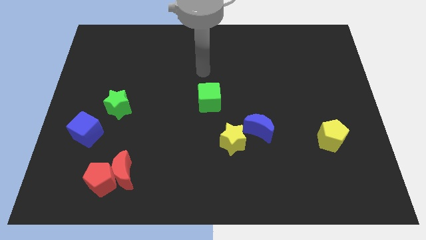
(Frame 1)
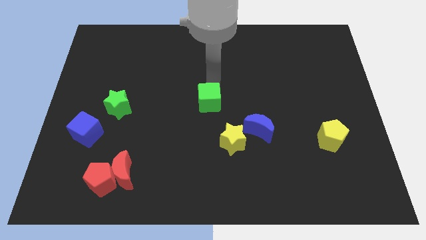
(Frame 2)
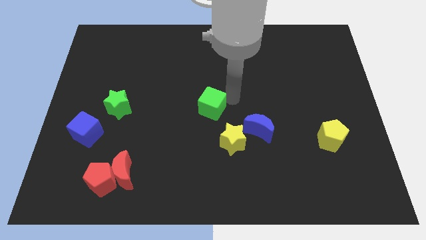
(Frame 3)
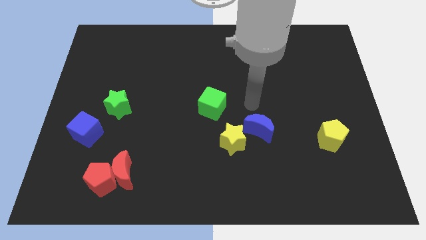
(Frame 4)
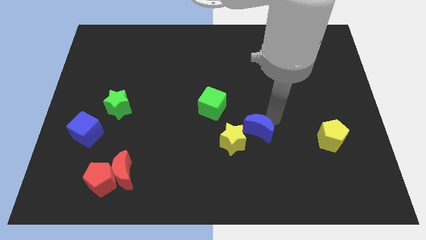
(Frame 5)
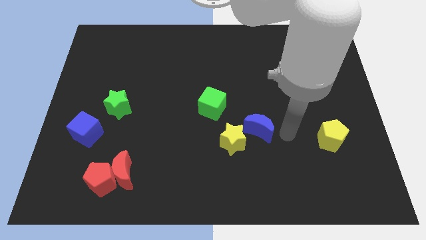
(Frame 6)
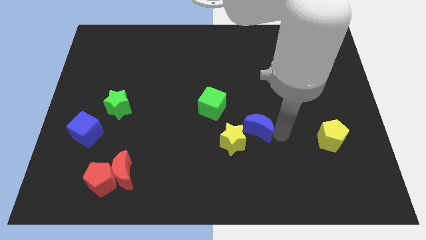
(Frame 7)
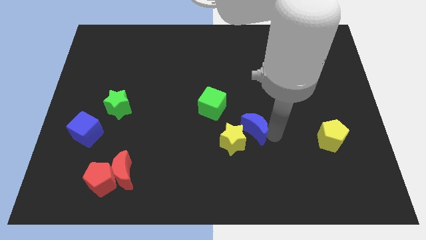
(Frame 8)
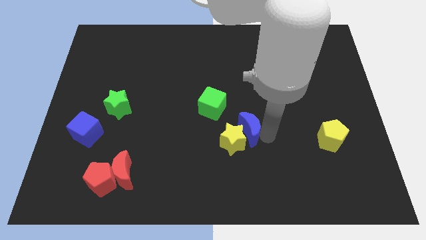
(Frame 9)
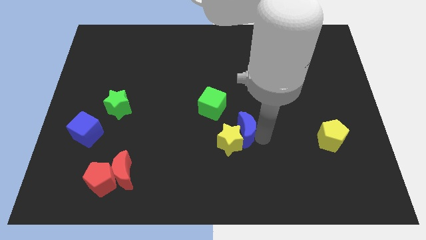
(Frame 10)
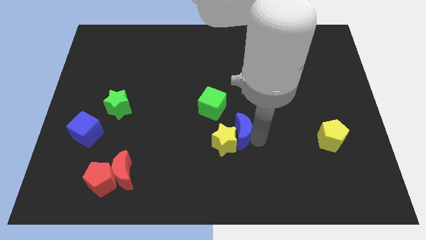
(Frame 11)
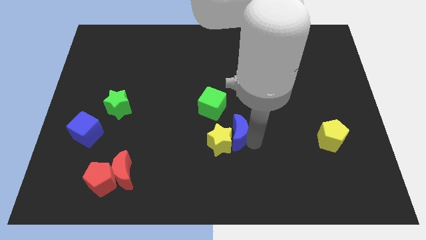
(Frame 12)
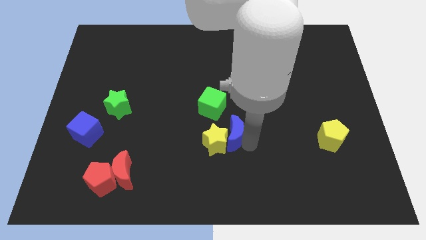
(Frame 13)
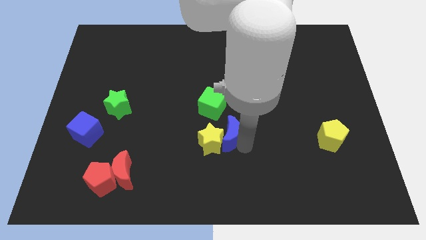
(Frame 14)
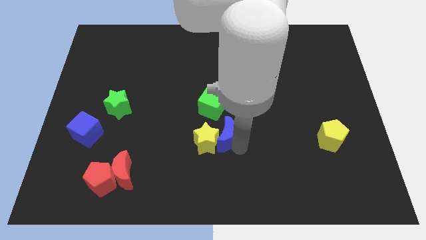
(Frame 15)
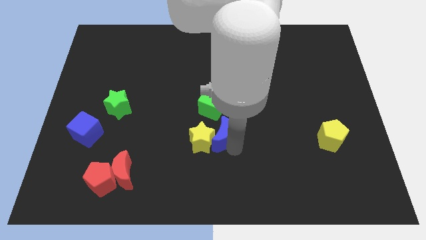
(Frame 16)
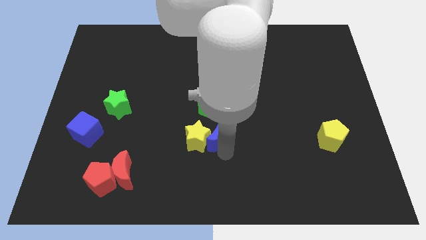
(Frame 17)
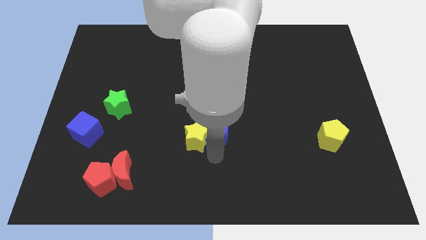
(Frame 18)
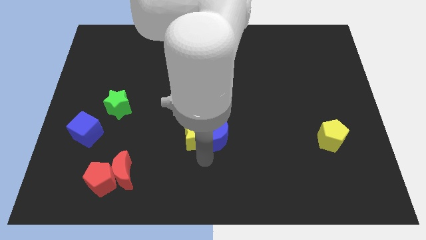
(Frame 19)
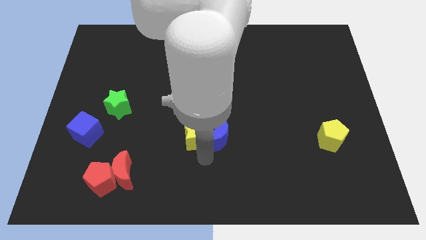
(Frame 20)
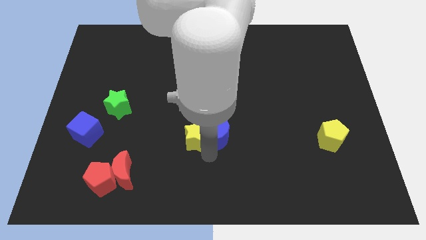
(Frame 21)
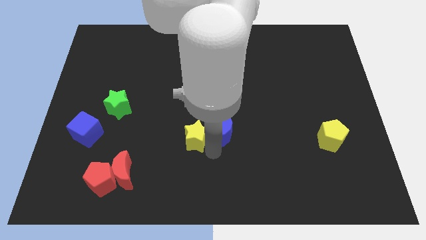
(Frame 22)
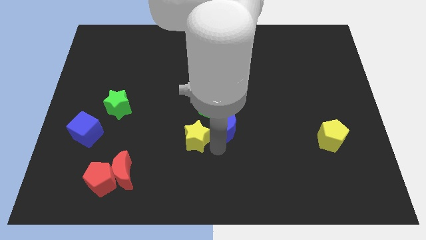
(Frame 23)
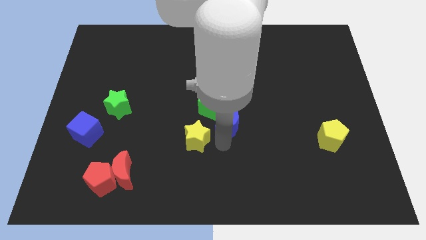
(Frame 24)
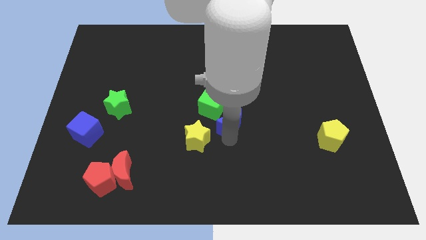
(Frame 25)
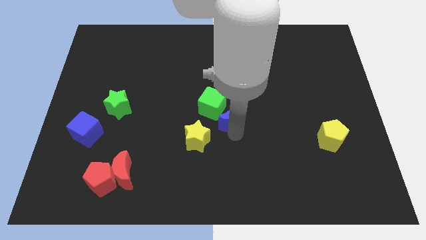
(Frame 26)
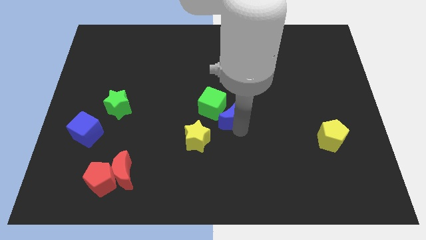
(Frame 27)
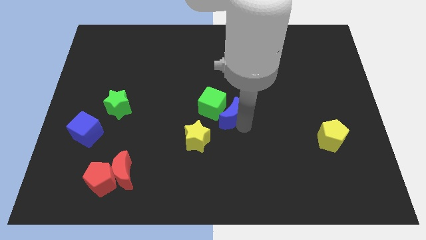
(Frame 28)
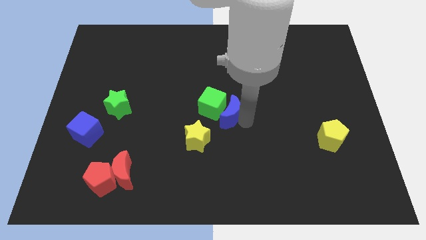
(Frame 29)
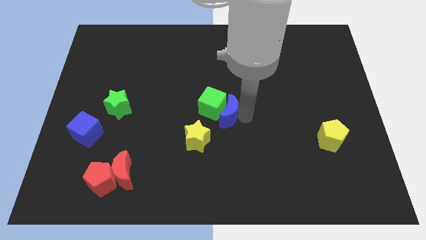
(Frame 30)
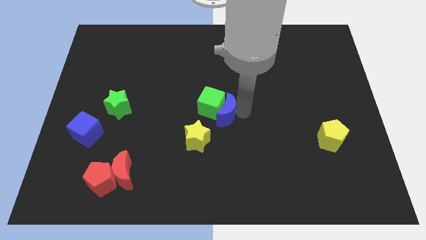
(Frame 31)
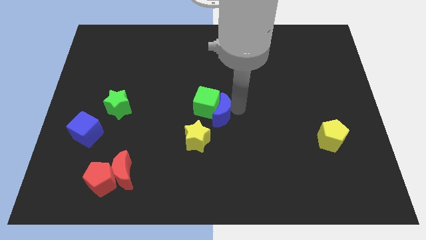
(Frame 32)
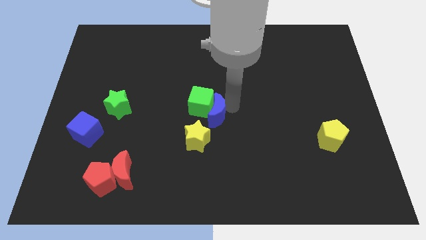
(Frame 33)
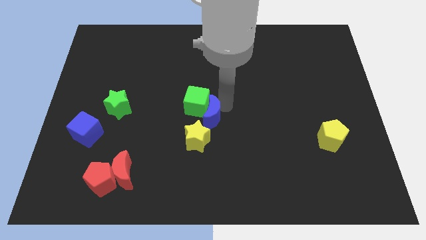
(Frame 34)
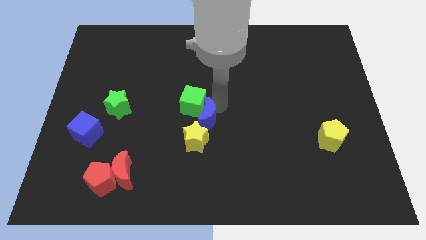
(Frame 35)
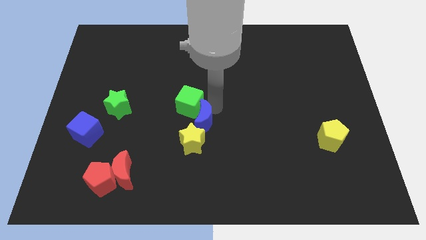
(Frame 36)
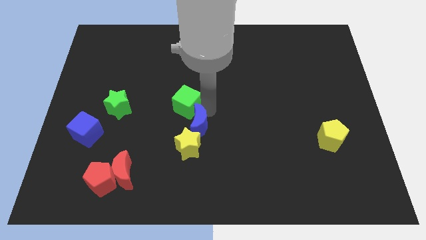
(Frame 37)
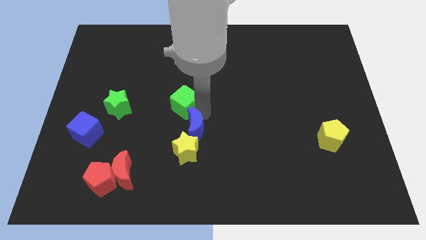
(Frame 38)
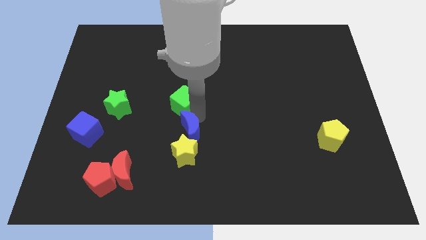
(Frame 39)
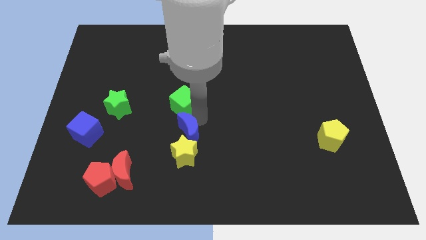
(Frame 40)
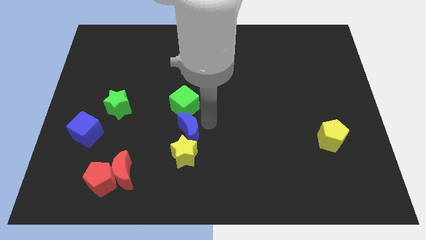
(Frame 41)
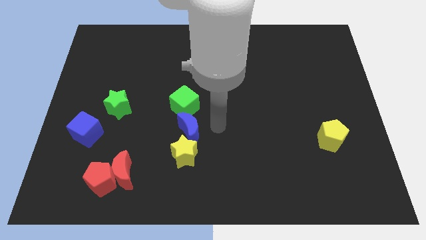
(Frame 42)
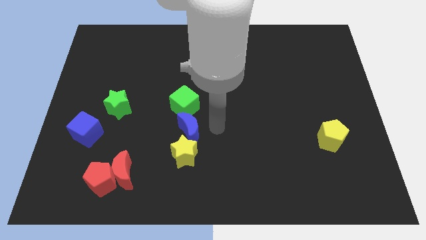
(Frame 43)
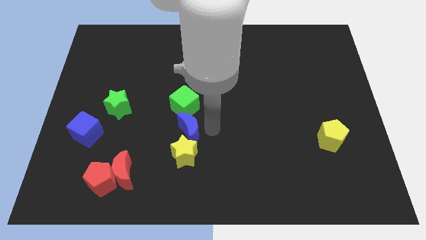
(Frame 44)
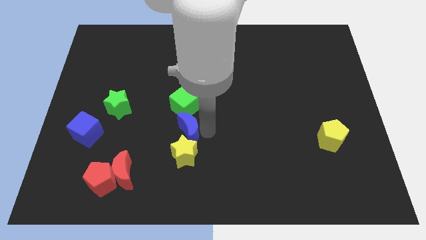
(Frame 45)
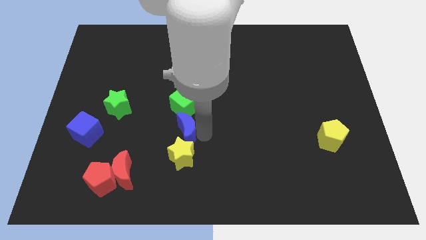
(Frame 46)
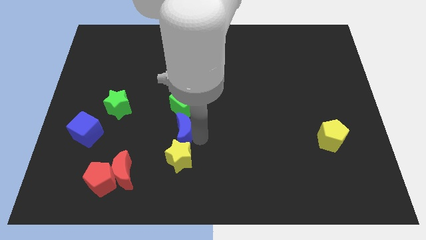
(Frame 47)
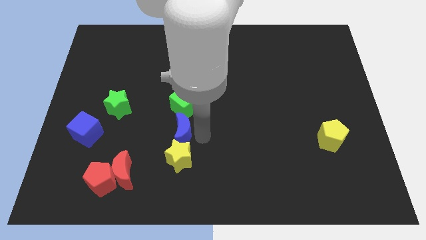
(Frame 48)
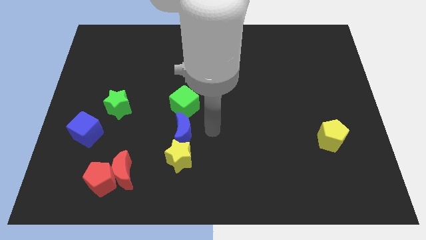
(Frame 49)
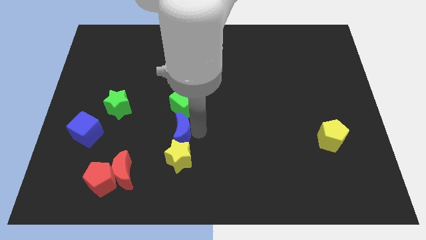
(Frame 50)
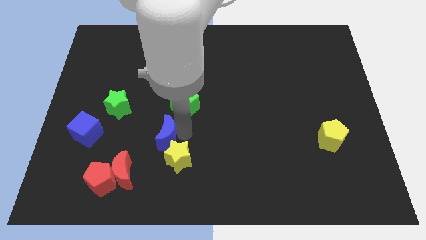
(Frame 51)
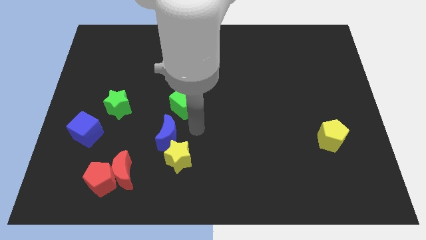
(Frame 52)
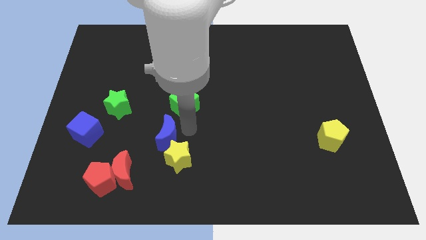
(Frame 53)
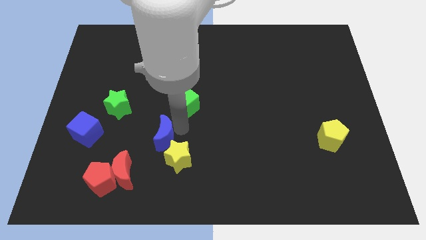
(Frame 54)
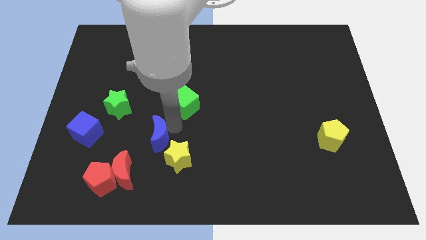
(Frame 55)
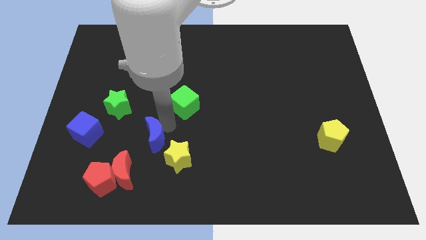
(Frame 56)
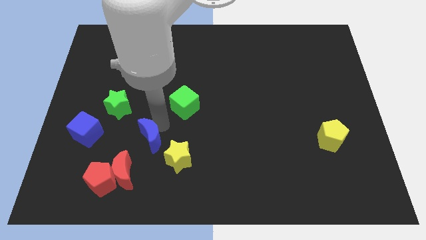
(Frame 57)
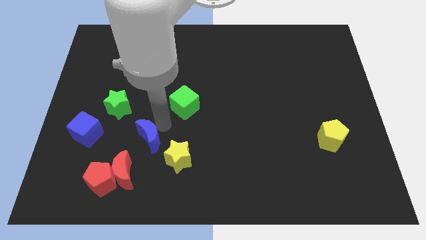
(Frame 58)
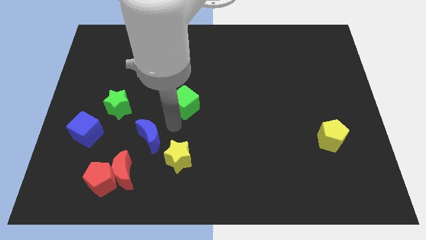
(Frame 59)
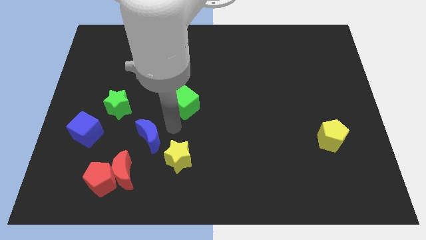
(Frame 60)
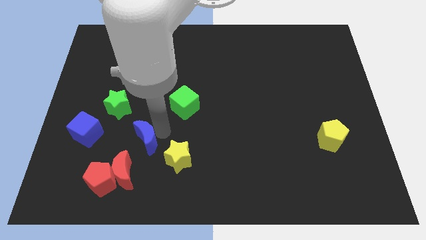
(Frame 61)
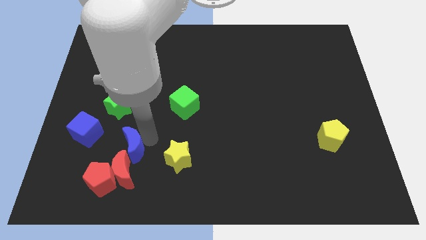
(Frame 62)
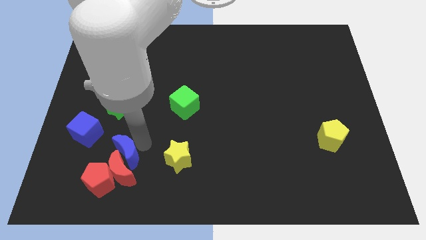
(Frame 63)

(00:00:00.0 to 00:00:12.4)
put the blue moon to the bottom right side of the blue cube

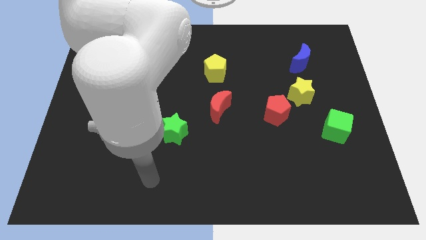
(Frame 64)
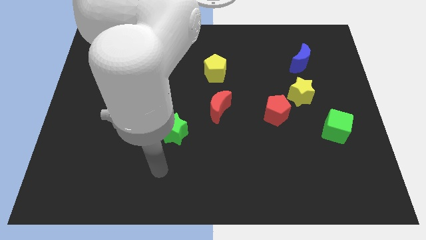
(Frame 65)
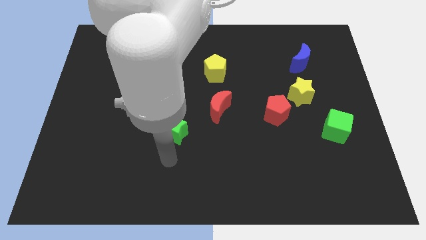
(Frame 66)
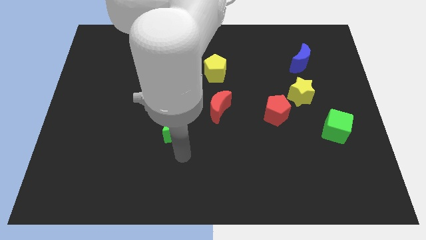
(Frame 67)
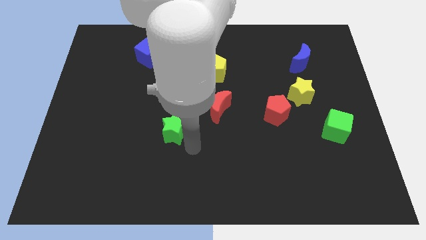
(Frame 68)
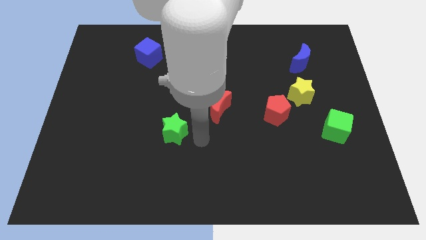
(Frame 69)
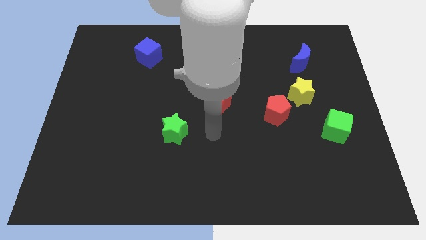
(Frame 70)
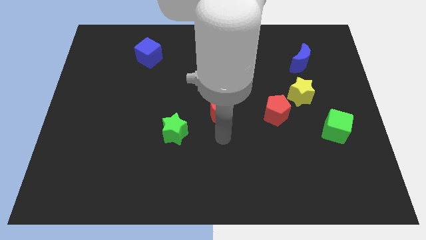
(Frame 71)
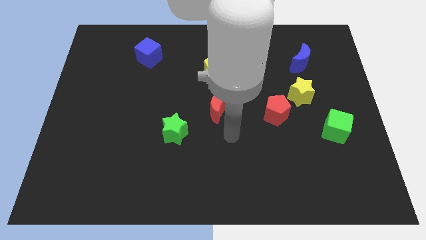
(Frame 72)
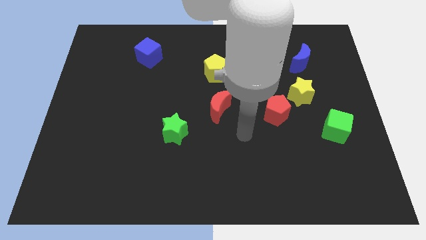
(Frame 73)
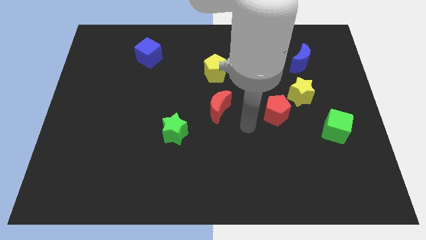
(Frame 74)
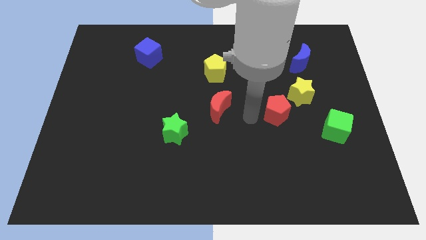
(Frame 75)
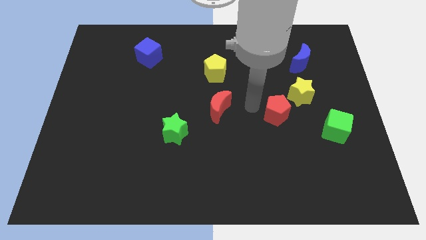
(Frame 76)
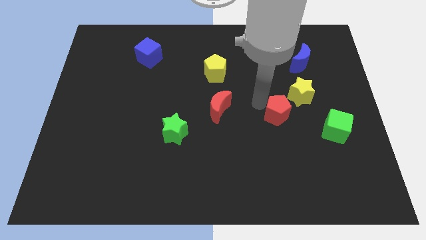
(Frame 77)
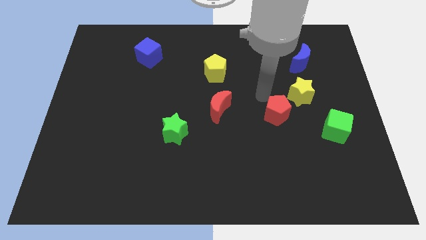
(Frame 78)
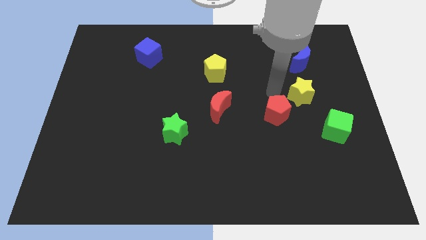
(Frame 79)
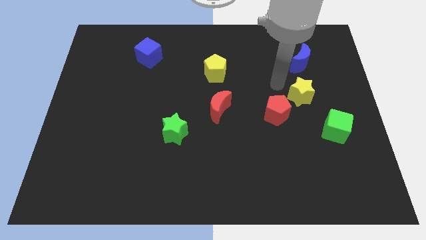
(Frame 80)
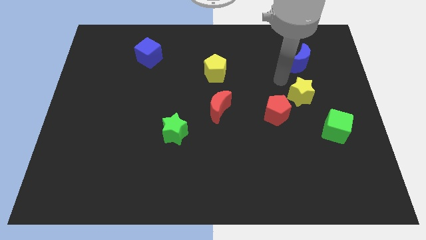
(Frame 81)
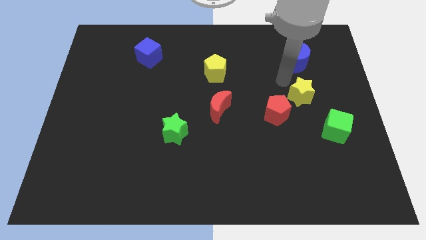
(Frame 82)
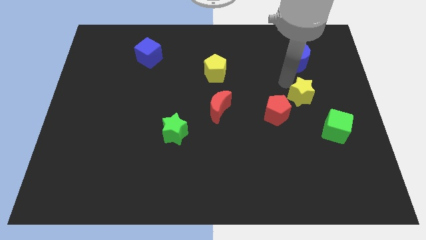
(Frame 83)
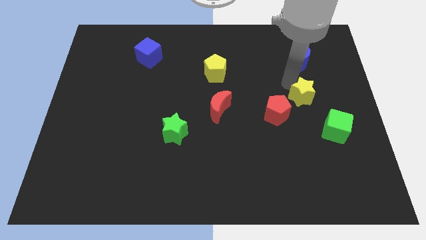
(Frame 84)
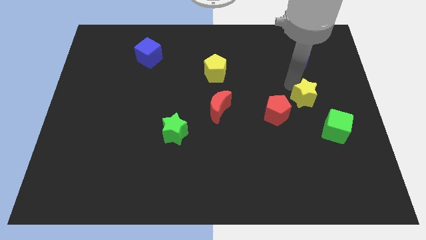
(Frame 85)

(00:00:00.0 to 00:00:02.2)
slide the yellow star right of the red pentagon
